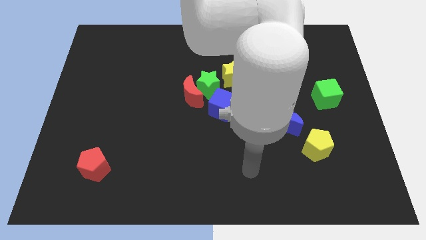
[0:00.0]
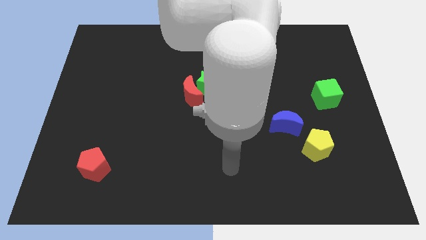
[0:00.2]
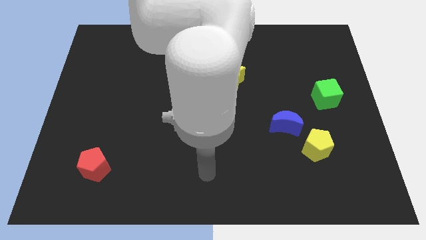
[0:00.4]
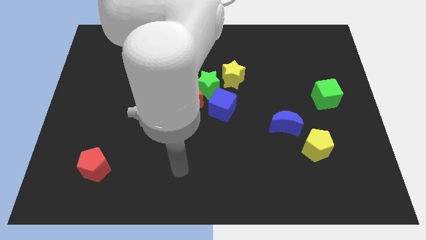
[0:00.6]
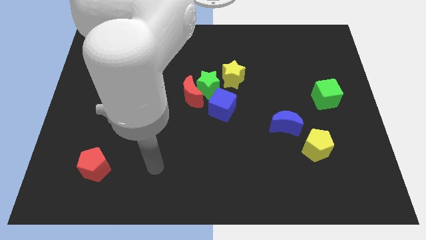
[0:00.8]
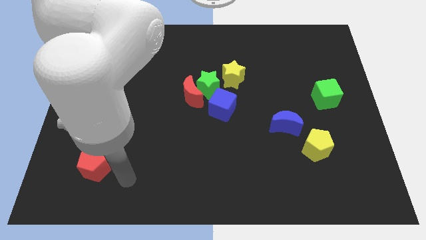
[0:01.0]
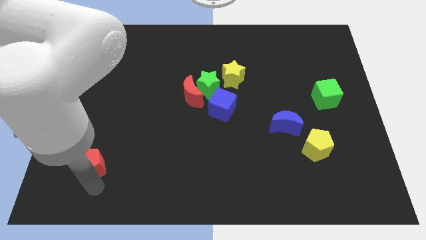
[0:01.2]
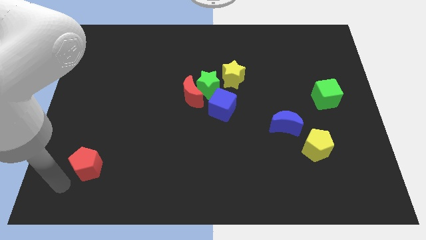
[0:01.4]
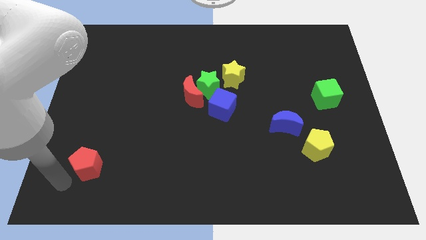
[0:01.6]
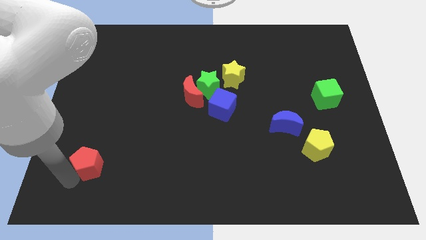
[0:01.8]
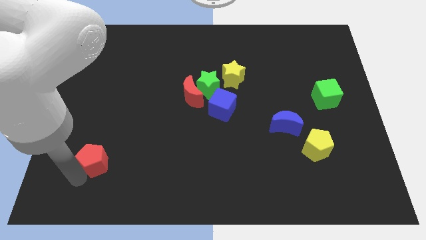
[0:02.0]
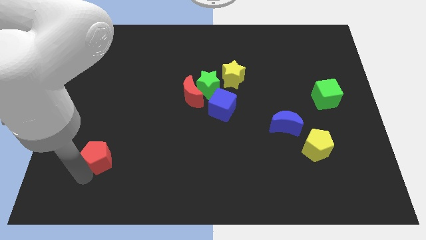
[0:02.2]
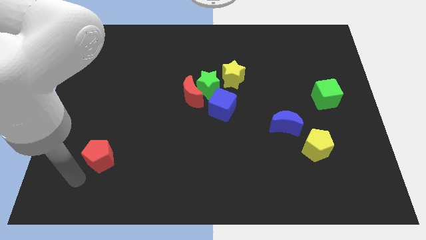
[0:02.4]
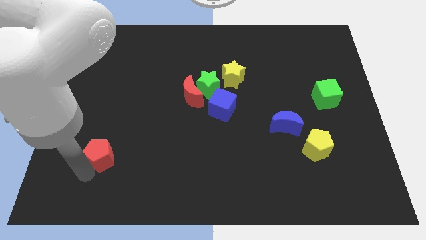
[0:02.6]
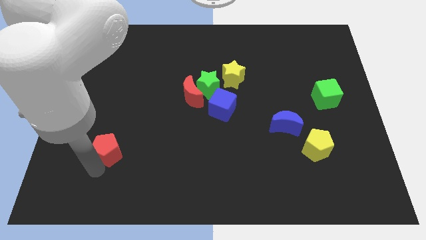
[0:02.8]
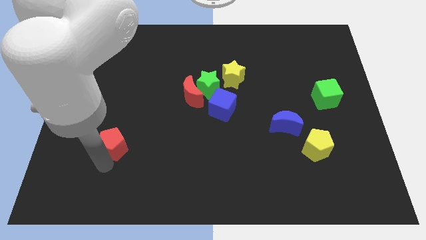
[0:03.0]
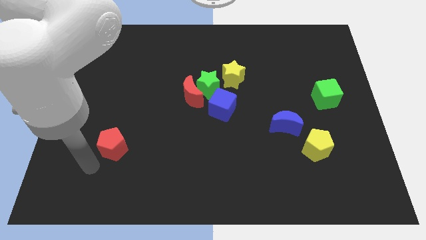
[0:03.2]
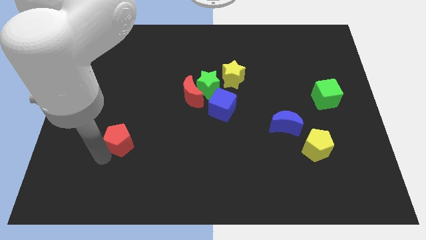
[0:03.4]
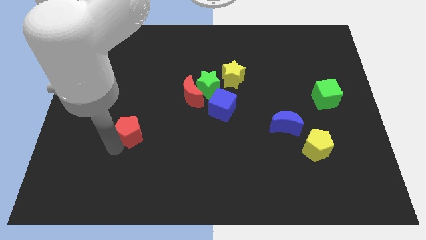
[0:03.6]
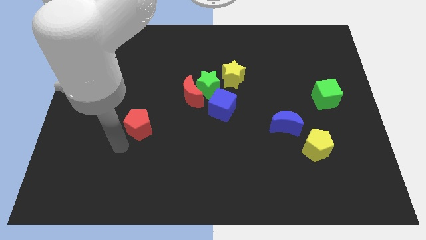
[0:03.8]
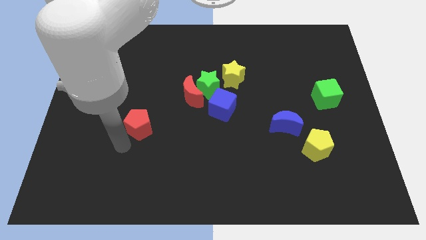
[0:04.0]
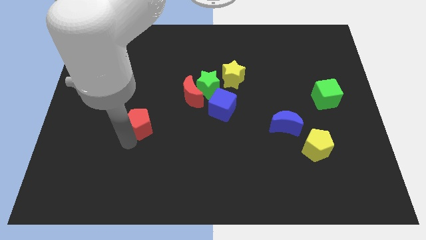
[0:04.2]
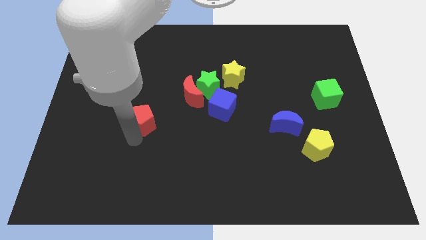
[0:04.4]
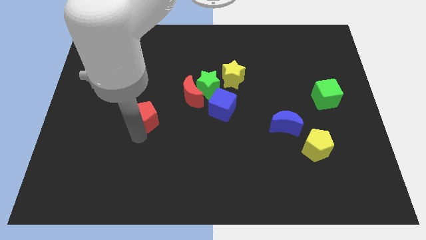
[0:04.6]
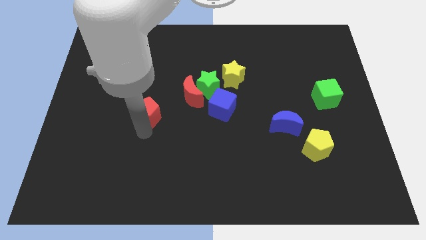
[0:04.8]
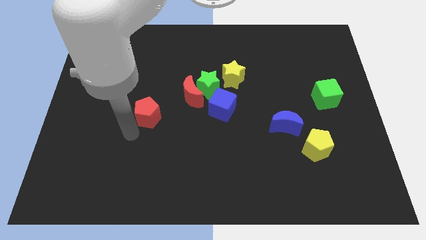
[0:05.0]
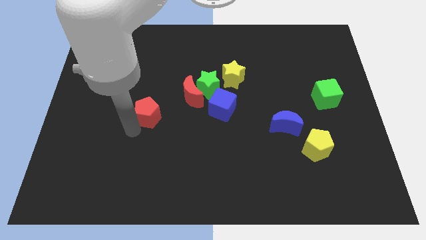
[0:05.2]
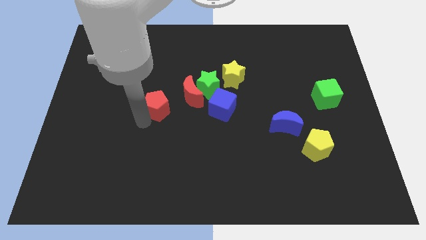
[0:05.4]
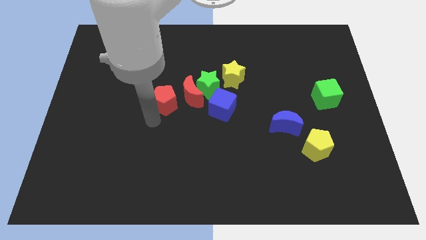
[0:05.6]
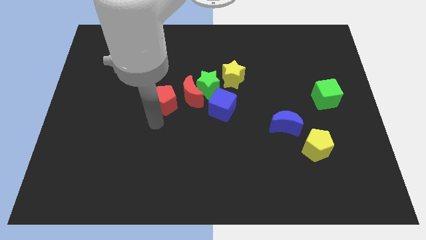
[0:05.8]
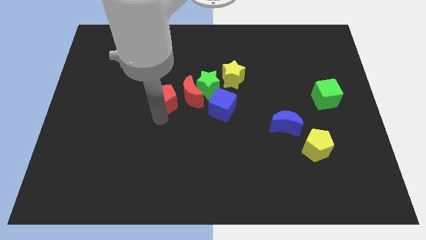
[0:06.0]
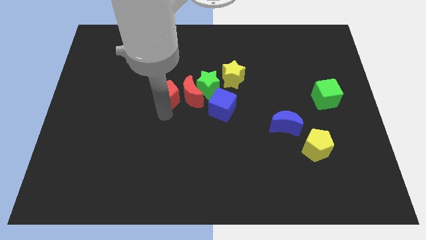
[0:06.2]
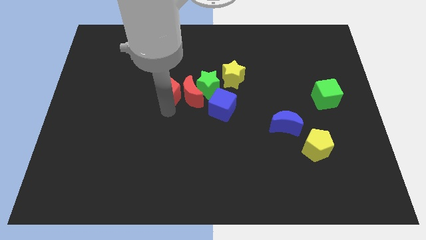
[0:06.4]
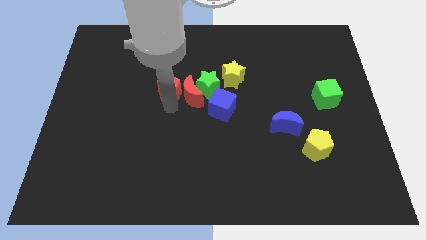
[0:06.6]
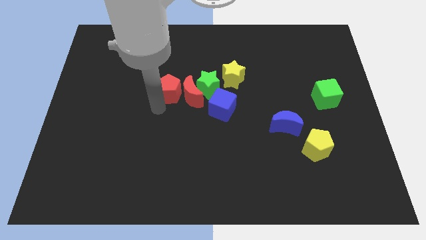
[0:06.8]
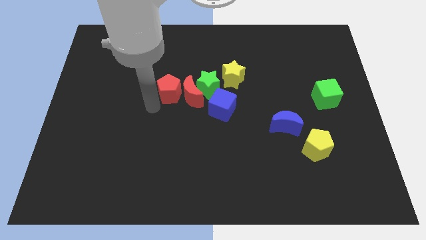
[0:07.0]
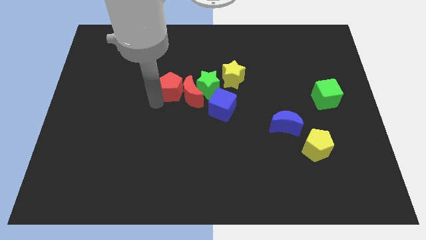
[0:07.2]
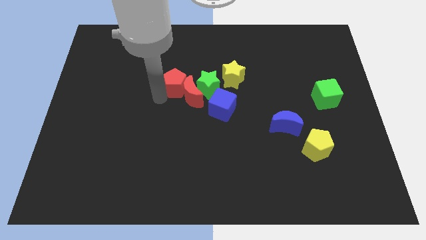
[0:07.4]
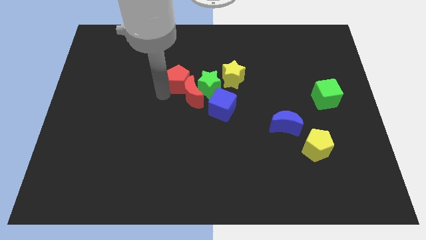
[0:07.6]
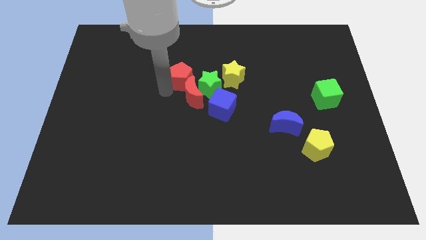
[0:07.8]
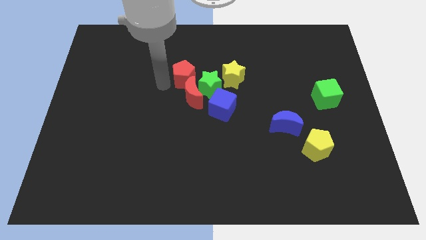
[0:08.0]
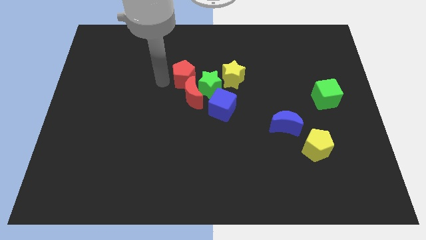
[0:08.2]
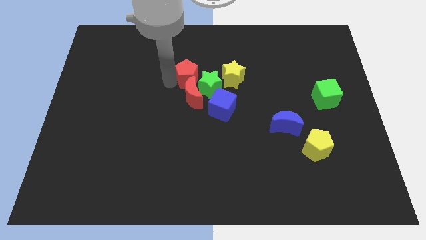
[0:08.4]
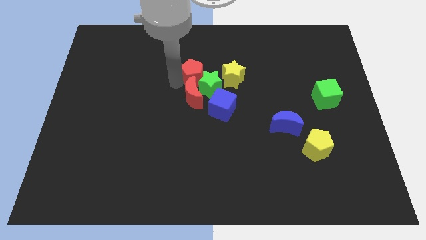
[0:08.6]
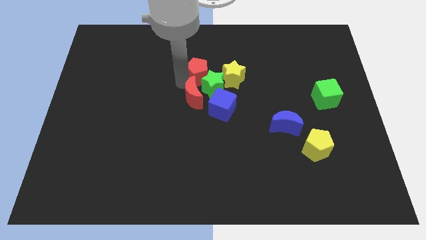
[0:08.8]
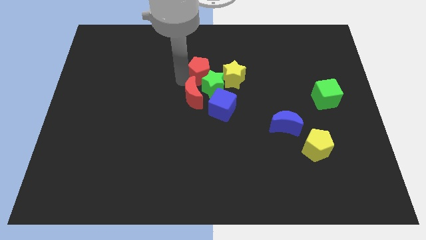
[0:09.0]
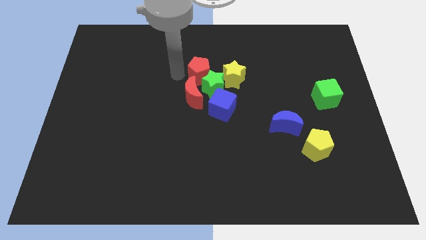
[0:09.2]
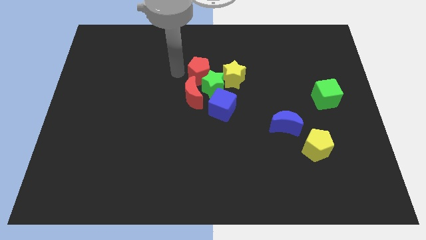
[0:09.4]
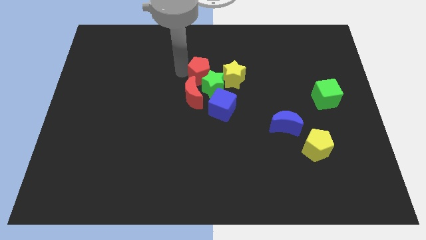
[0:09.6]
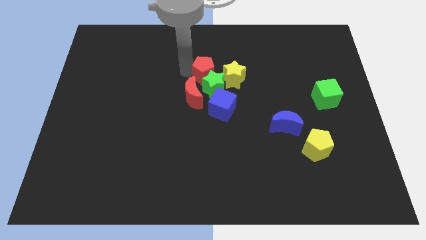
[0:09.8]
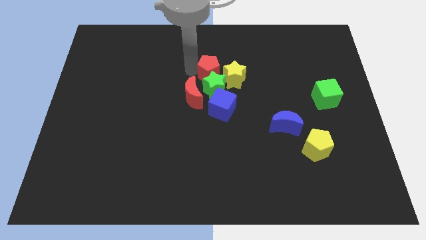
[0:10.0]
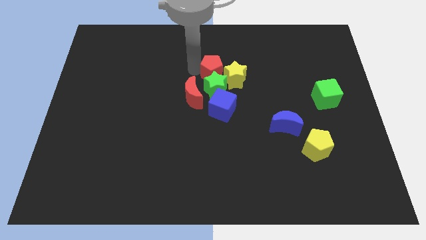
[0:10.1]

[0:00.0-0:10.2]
push the red pentagon towards the yellow star

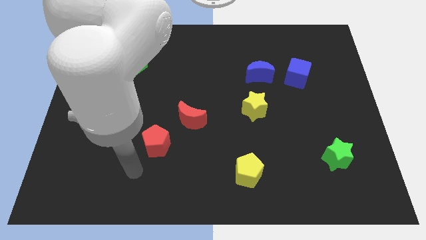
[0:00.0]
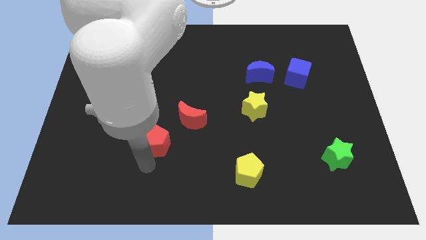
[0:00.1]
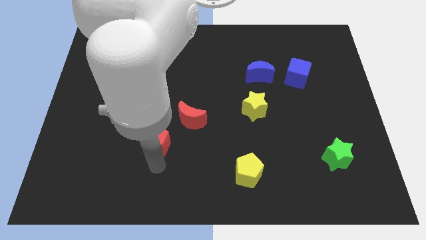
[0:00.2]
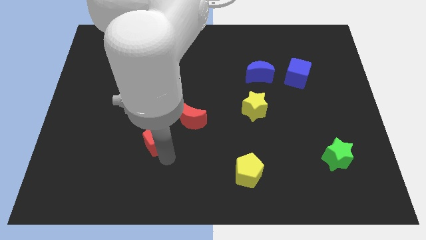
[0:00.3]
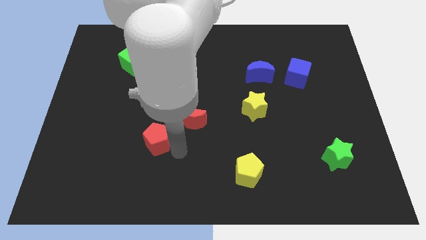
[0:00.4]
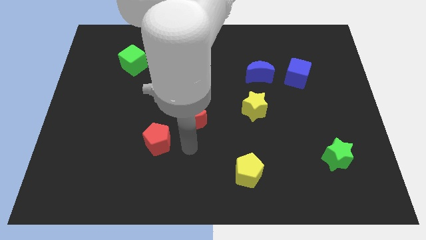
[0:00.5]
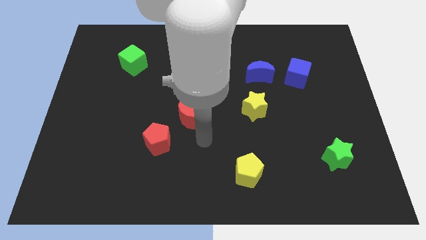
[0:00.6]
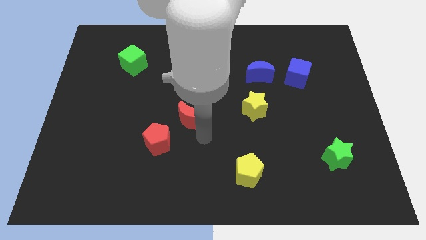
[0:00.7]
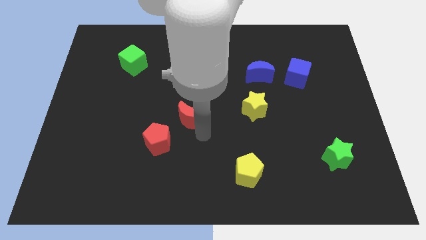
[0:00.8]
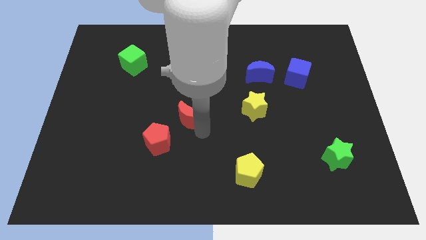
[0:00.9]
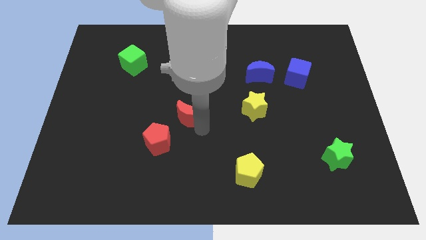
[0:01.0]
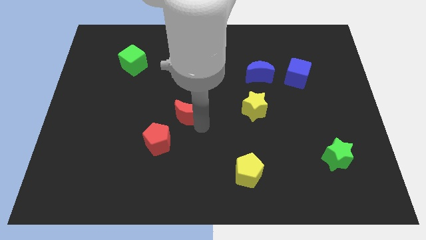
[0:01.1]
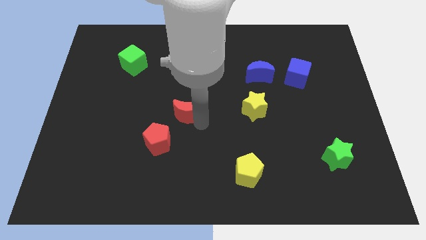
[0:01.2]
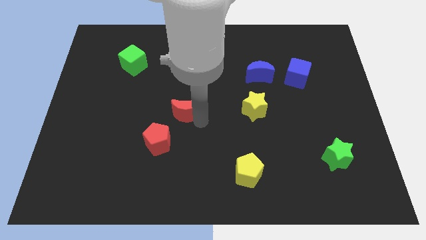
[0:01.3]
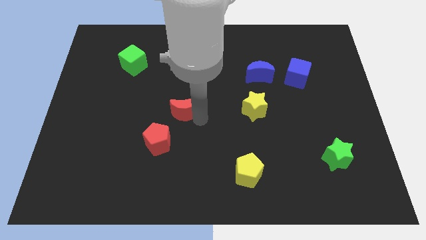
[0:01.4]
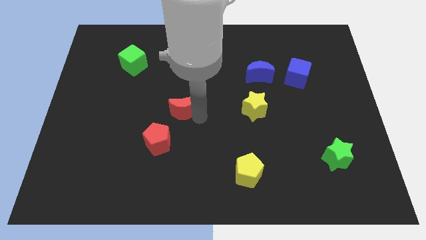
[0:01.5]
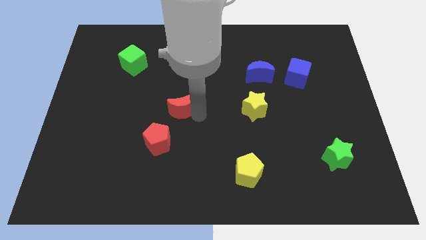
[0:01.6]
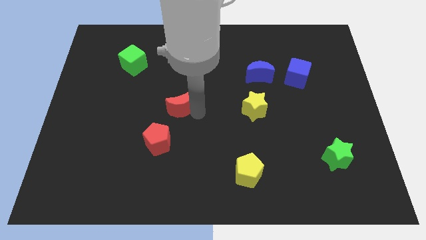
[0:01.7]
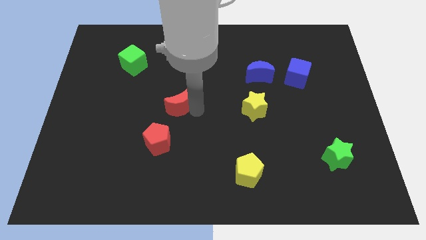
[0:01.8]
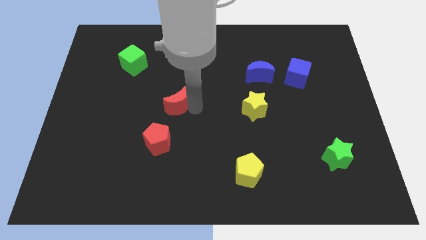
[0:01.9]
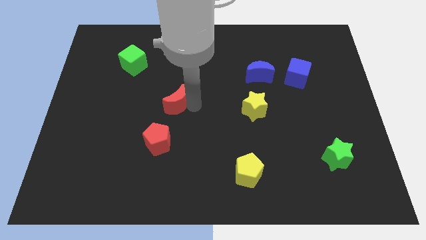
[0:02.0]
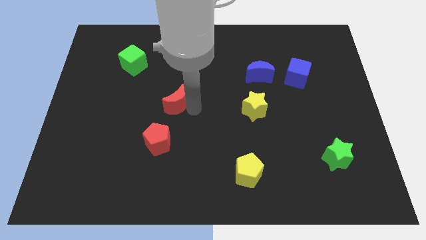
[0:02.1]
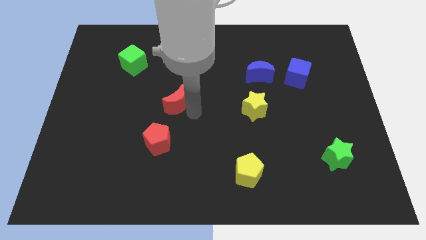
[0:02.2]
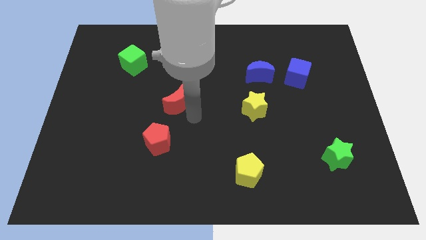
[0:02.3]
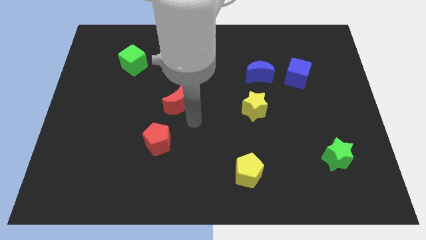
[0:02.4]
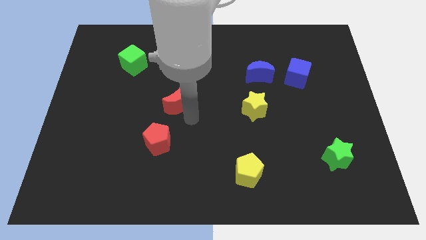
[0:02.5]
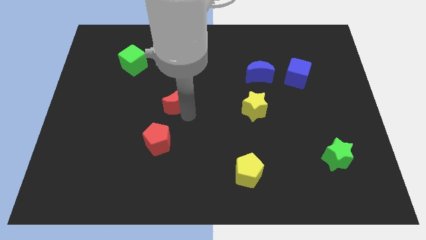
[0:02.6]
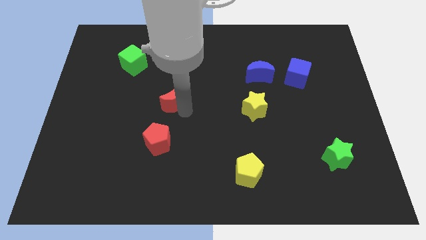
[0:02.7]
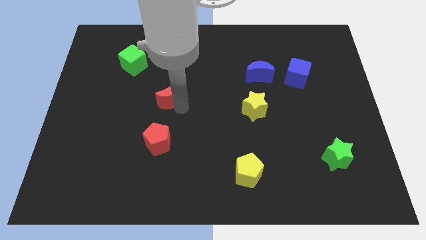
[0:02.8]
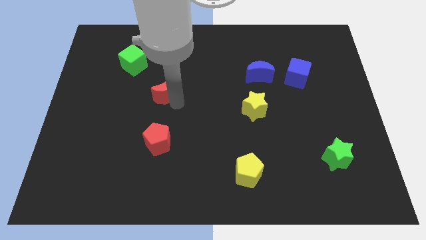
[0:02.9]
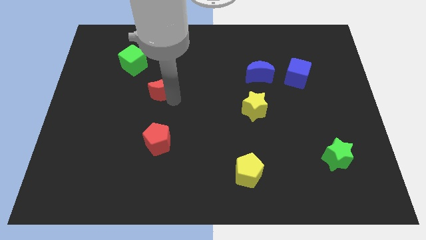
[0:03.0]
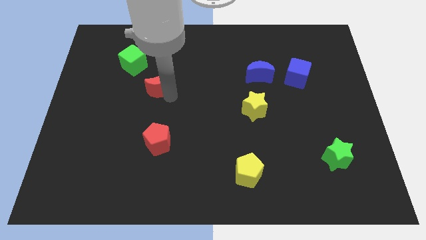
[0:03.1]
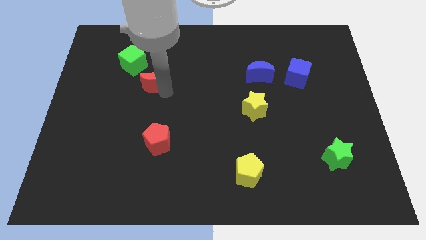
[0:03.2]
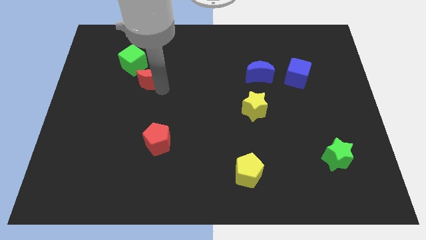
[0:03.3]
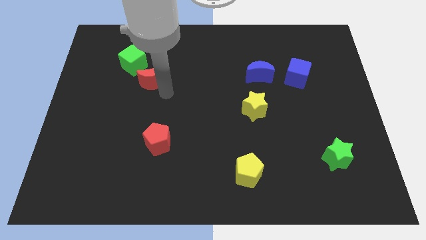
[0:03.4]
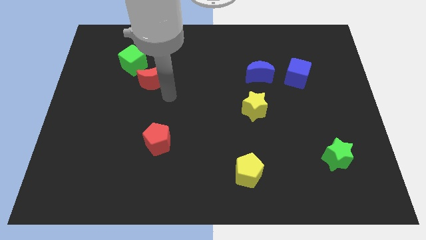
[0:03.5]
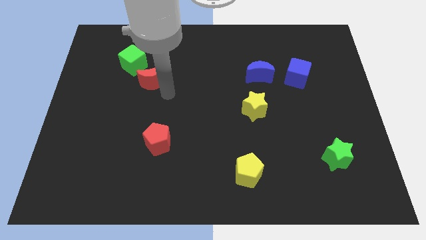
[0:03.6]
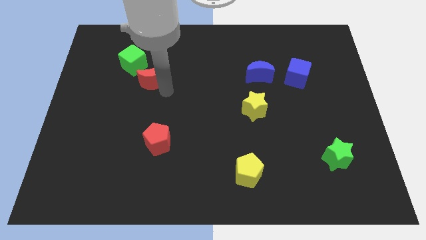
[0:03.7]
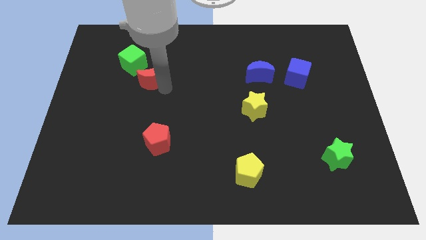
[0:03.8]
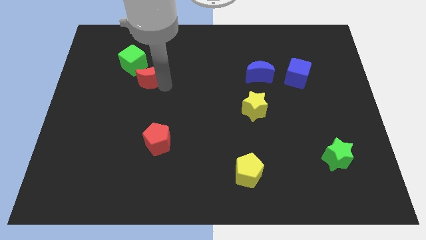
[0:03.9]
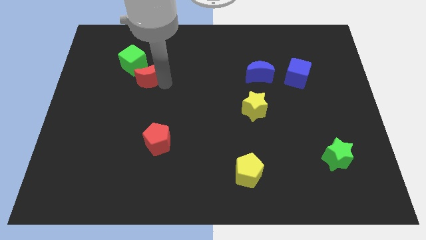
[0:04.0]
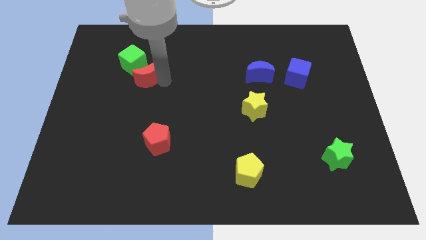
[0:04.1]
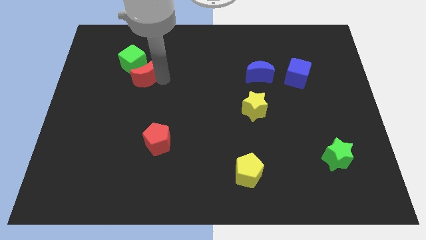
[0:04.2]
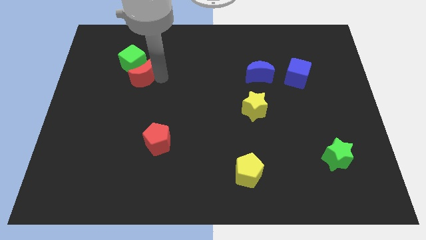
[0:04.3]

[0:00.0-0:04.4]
move the red moon close to the green cube
